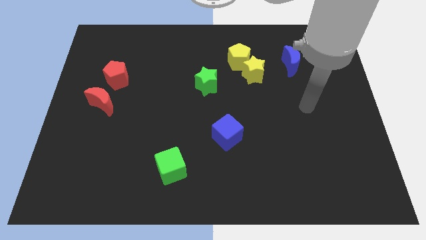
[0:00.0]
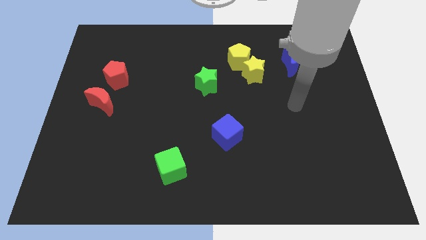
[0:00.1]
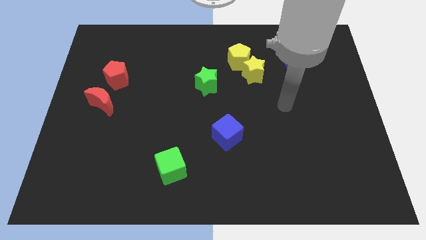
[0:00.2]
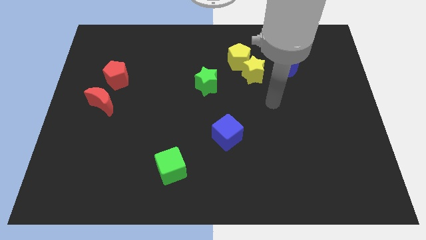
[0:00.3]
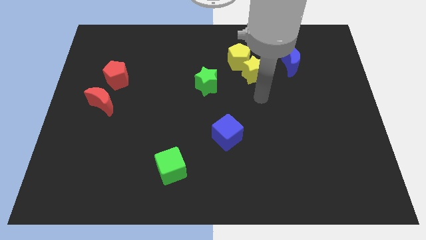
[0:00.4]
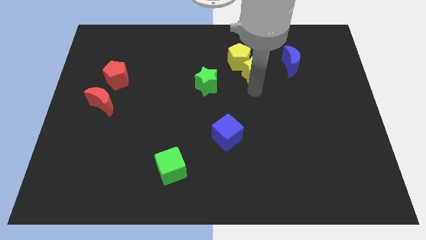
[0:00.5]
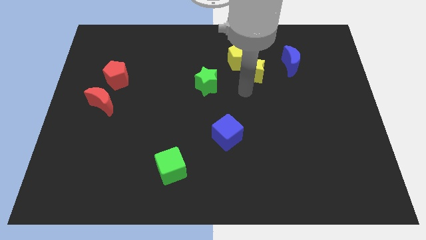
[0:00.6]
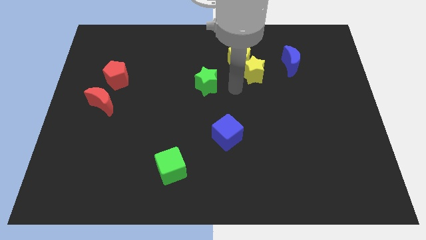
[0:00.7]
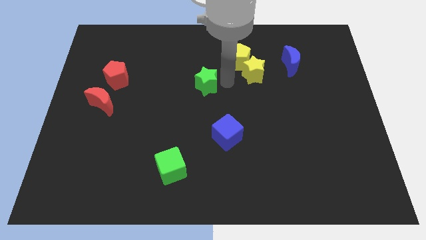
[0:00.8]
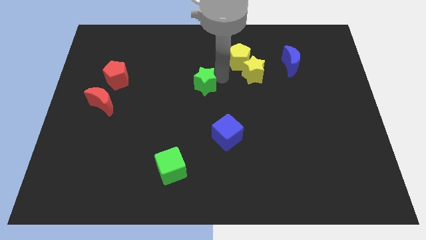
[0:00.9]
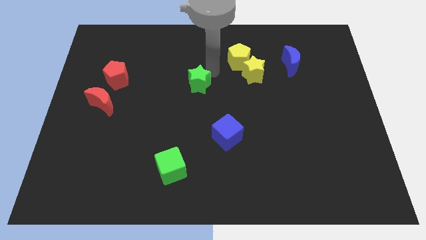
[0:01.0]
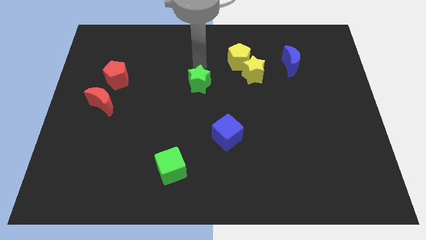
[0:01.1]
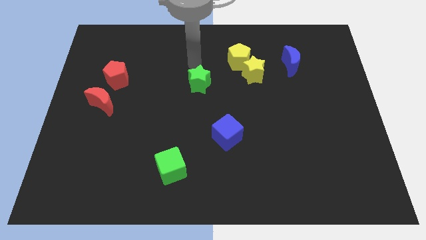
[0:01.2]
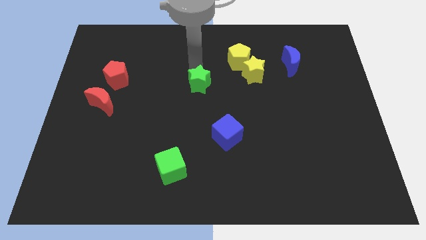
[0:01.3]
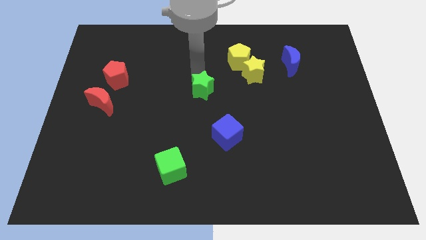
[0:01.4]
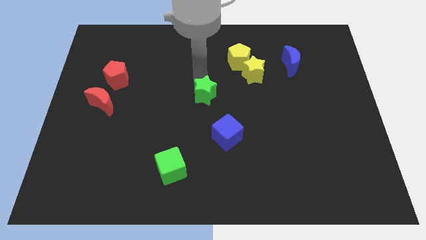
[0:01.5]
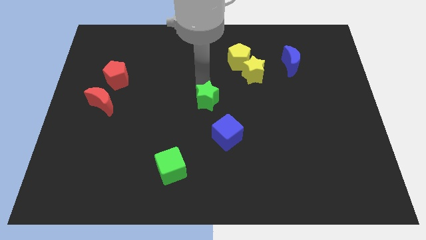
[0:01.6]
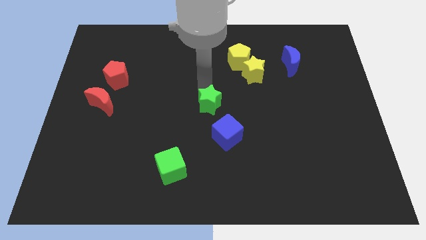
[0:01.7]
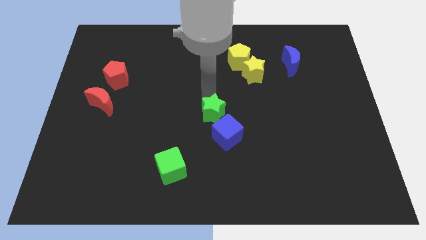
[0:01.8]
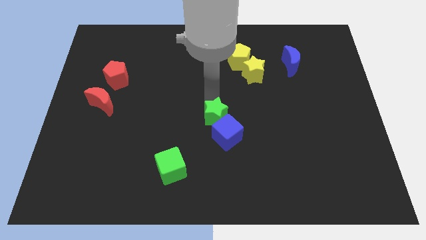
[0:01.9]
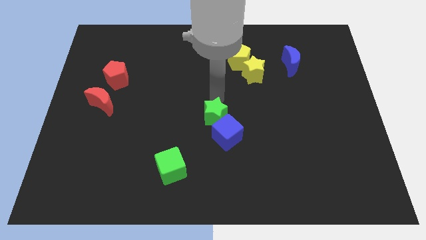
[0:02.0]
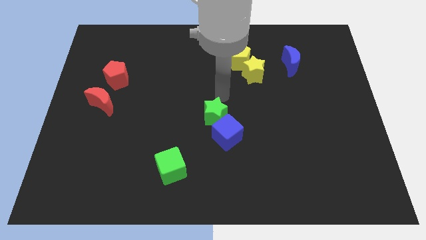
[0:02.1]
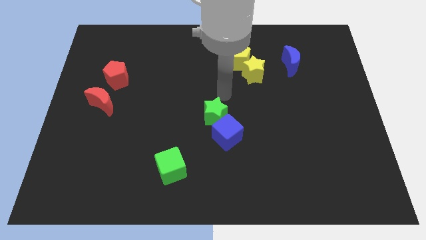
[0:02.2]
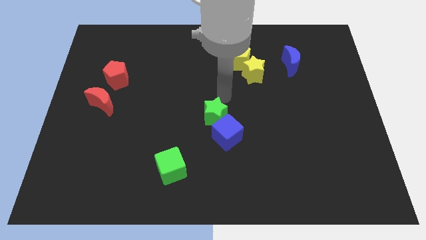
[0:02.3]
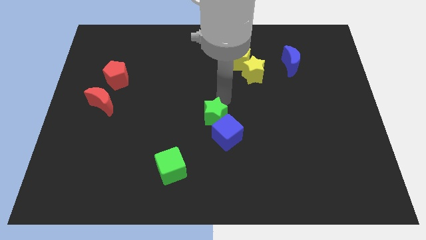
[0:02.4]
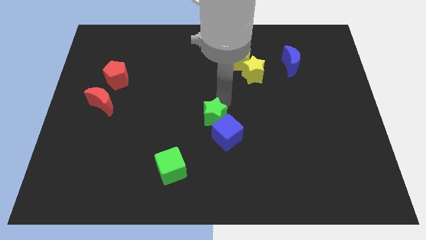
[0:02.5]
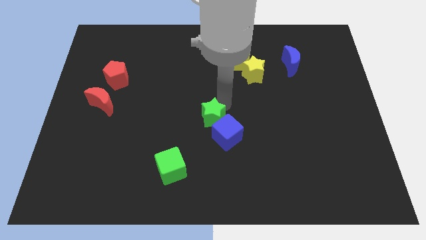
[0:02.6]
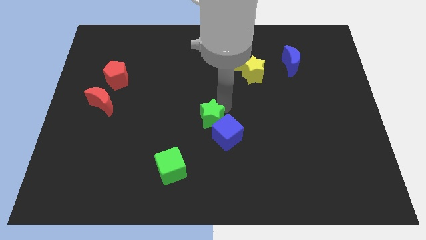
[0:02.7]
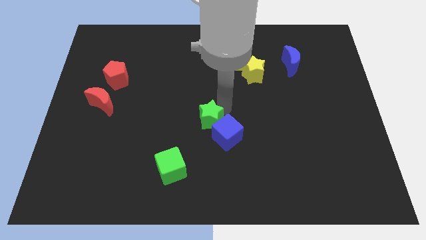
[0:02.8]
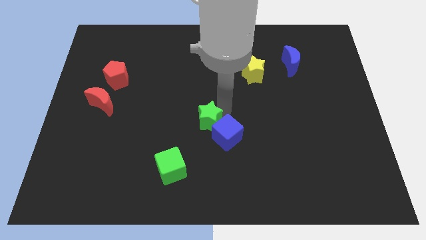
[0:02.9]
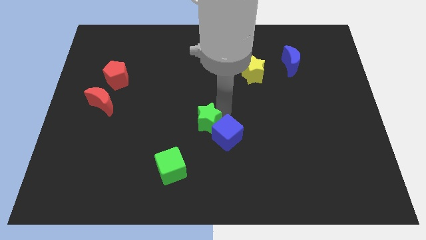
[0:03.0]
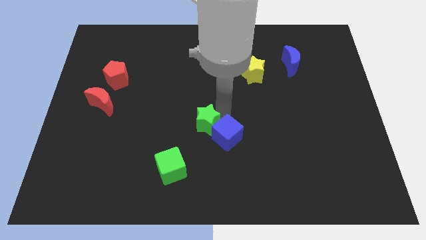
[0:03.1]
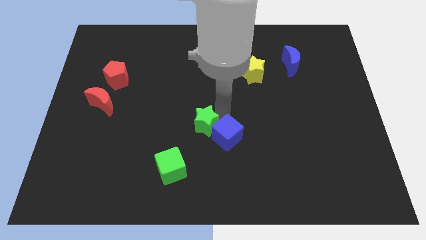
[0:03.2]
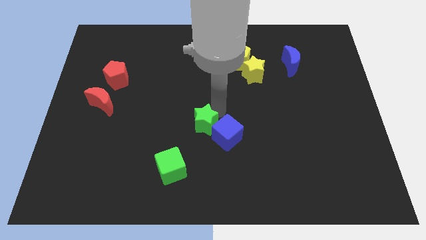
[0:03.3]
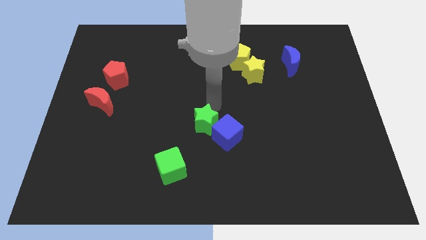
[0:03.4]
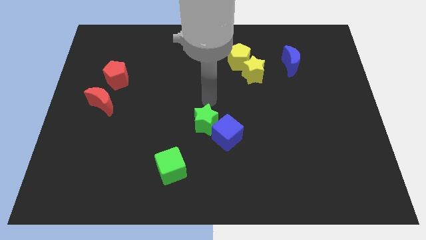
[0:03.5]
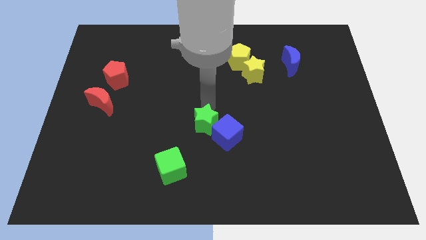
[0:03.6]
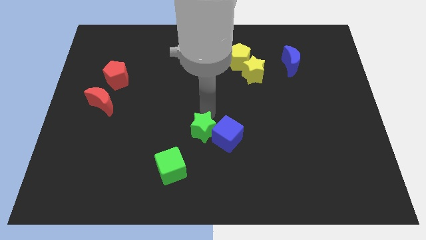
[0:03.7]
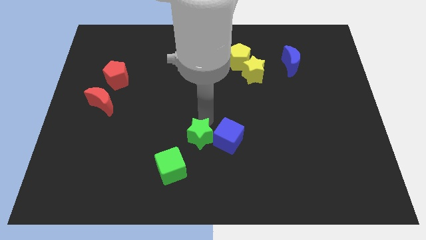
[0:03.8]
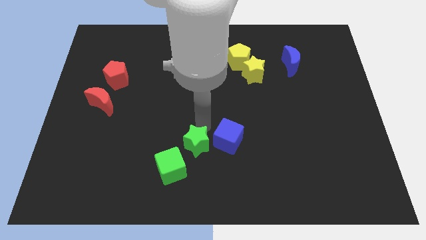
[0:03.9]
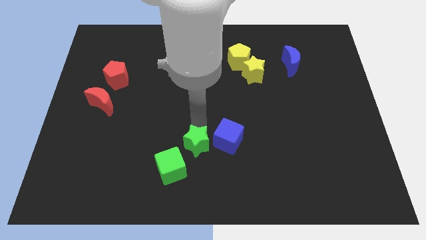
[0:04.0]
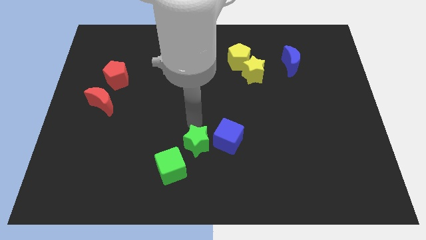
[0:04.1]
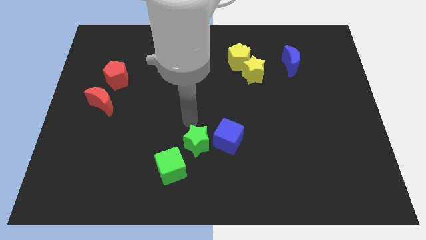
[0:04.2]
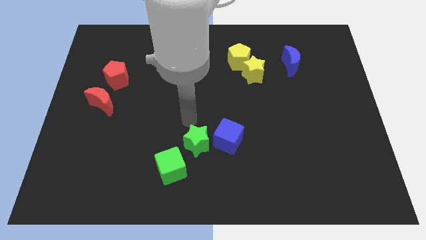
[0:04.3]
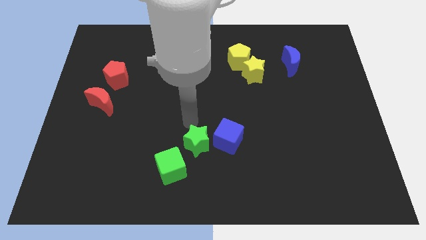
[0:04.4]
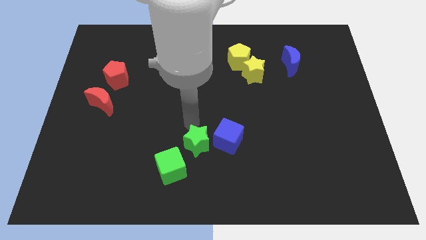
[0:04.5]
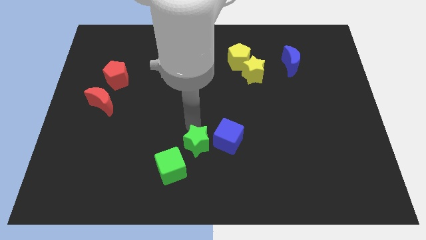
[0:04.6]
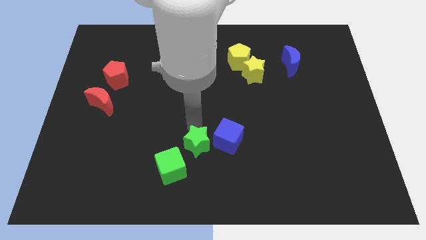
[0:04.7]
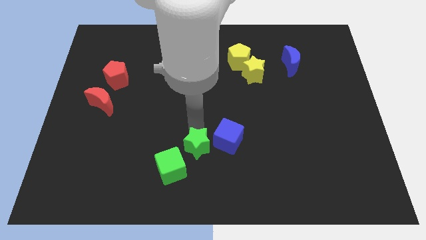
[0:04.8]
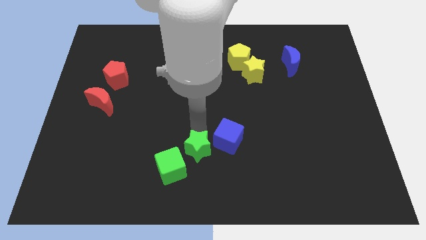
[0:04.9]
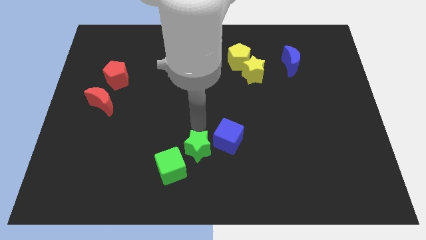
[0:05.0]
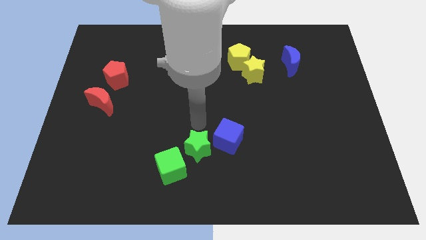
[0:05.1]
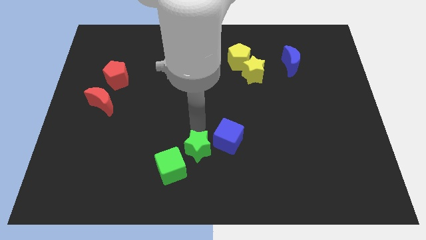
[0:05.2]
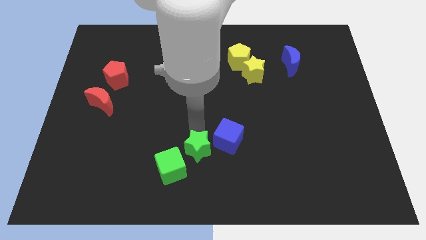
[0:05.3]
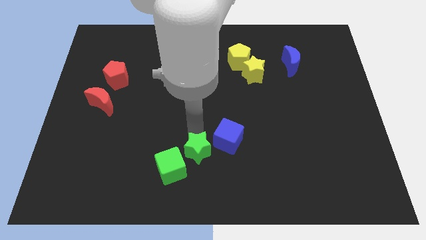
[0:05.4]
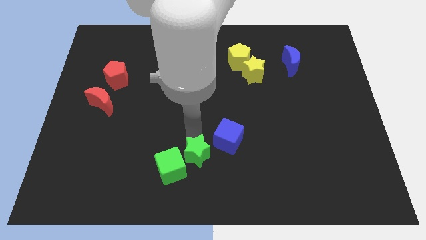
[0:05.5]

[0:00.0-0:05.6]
push the green star to the bottom side

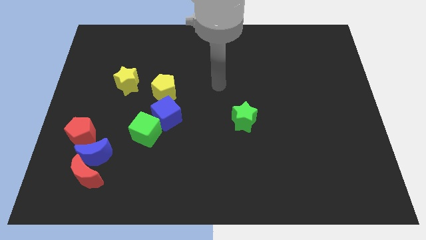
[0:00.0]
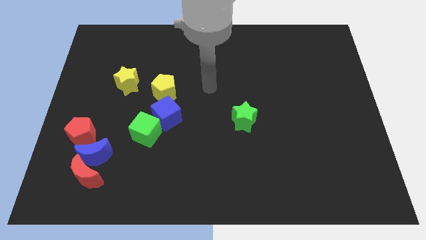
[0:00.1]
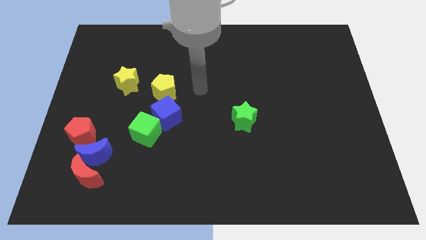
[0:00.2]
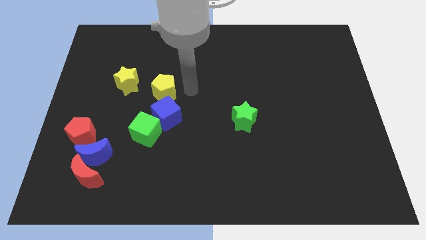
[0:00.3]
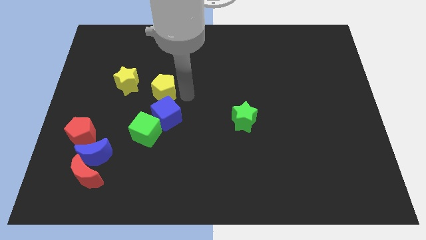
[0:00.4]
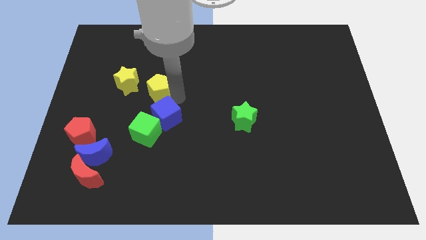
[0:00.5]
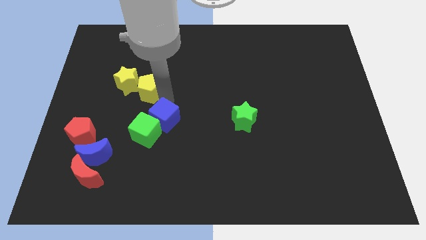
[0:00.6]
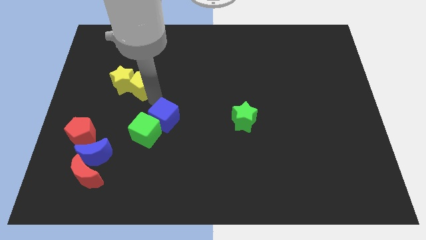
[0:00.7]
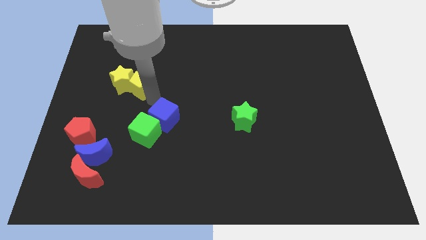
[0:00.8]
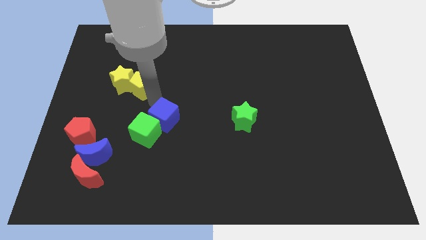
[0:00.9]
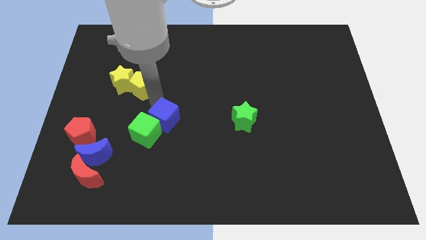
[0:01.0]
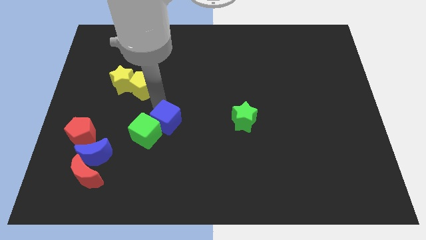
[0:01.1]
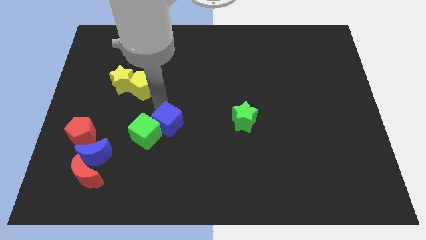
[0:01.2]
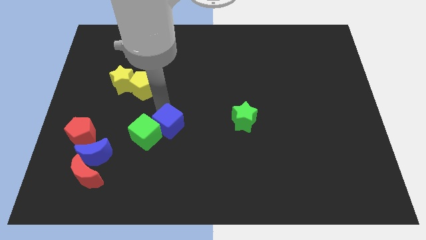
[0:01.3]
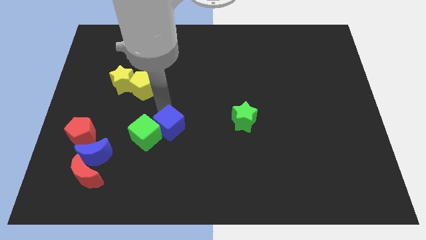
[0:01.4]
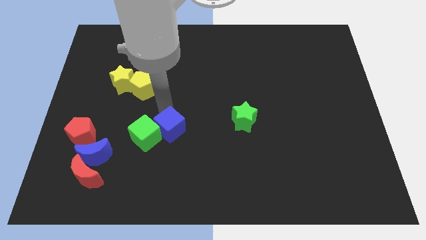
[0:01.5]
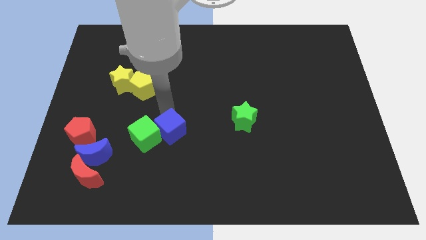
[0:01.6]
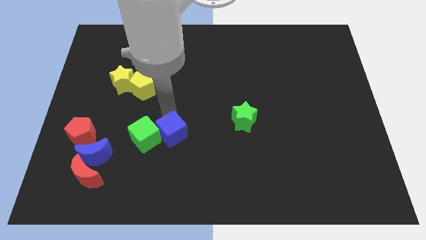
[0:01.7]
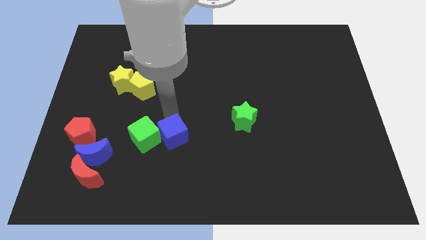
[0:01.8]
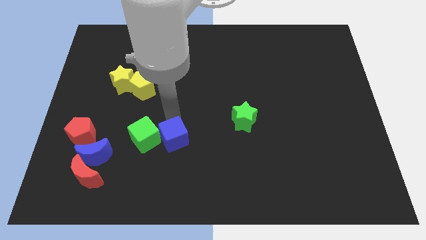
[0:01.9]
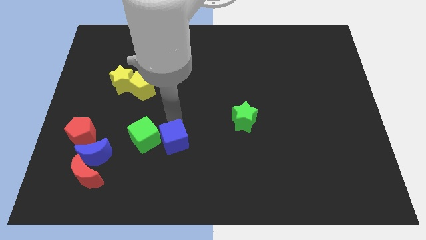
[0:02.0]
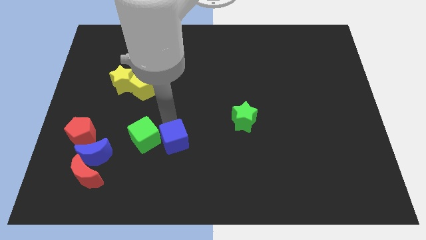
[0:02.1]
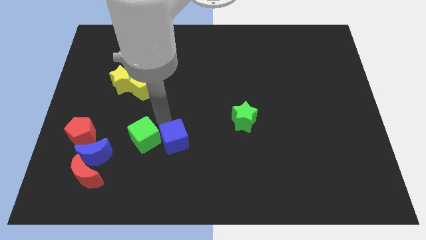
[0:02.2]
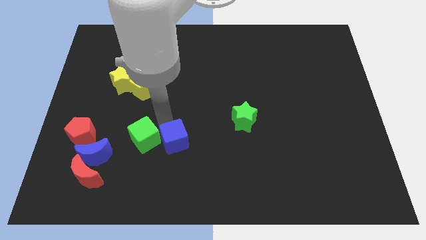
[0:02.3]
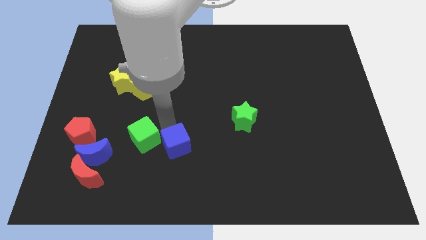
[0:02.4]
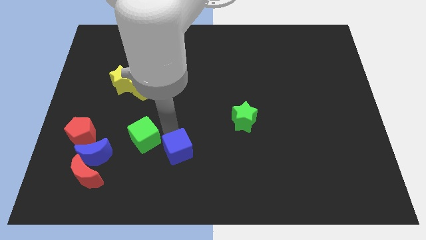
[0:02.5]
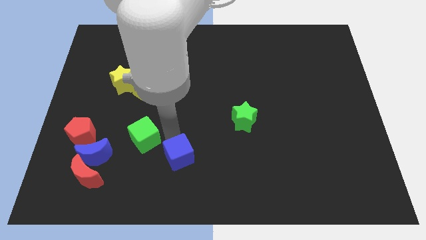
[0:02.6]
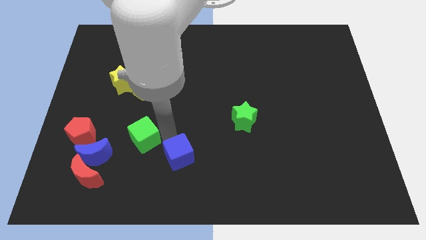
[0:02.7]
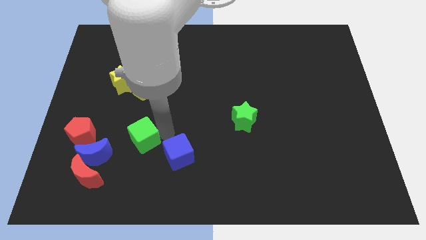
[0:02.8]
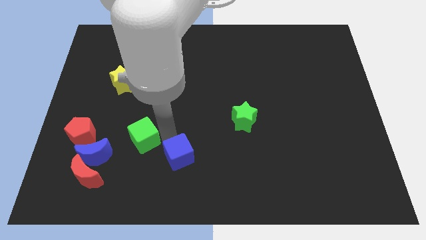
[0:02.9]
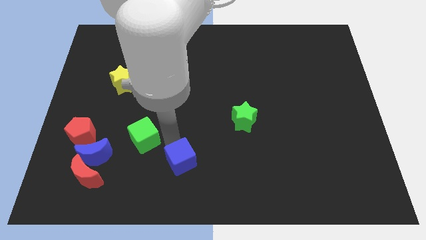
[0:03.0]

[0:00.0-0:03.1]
push the blue cube to the bottom
